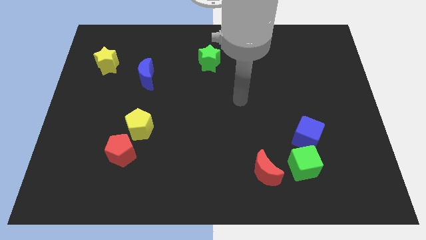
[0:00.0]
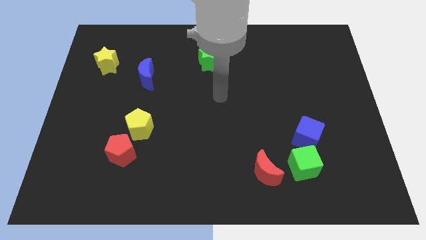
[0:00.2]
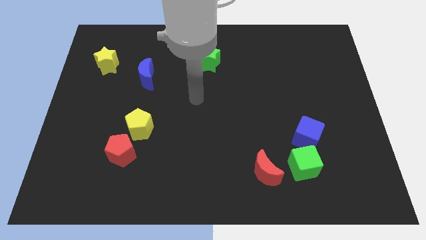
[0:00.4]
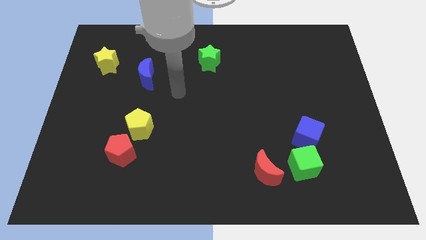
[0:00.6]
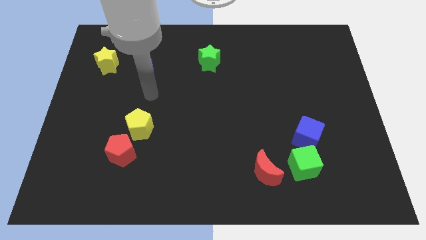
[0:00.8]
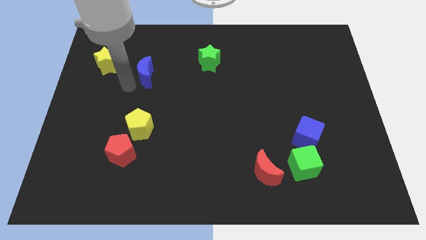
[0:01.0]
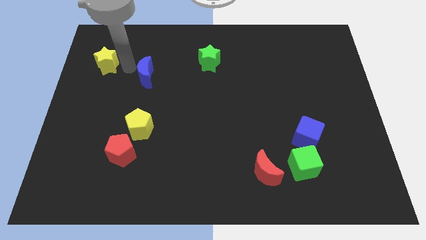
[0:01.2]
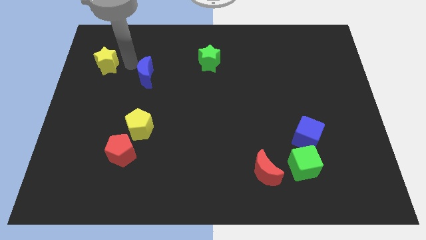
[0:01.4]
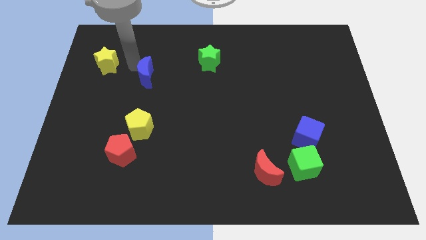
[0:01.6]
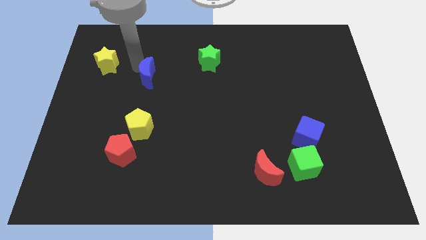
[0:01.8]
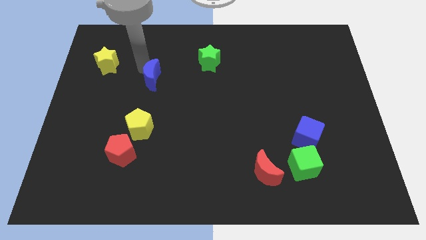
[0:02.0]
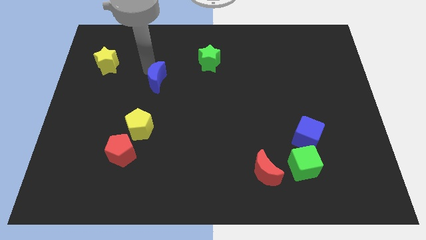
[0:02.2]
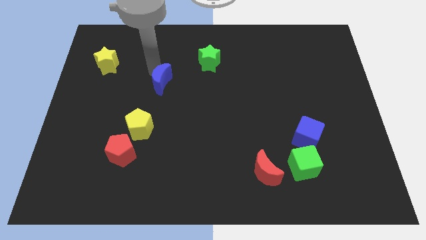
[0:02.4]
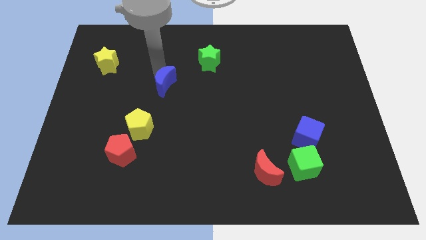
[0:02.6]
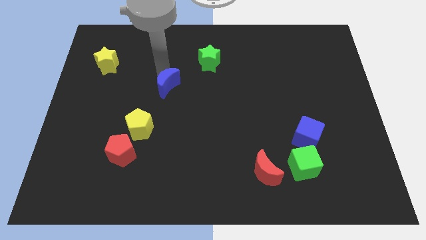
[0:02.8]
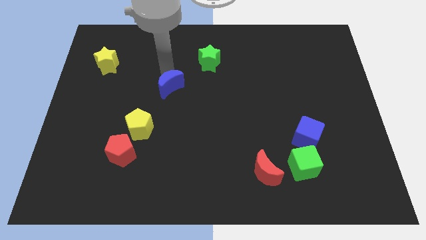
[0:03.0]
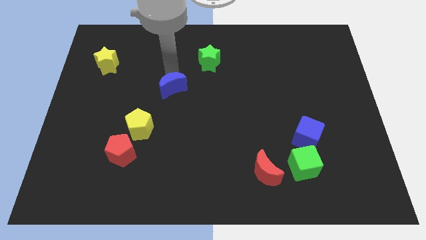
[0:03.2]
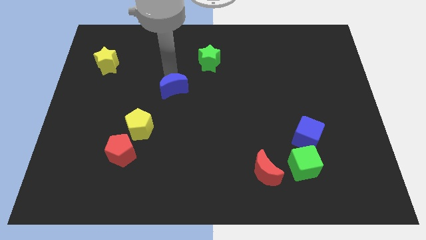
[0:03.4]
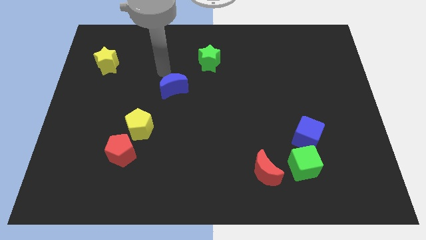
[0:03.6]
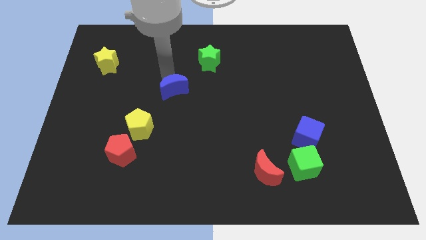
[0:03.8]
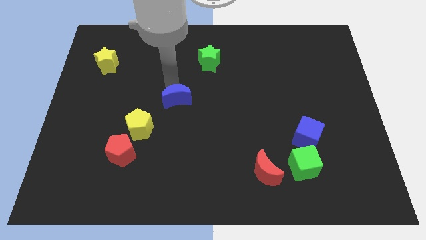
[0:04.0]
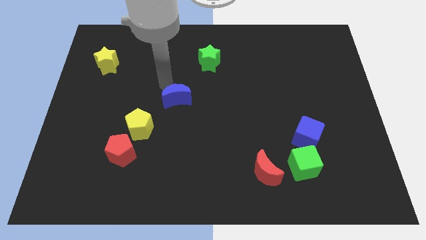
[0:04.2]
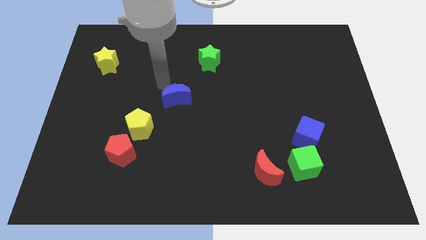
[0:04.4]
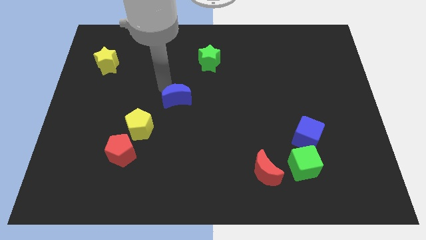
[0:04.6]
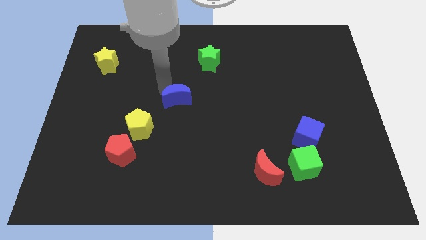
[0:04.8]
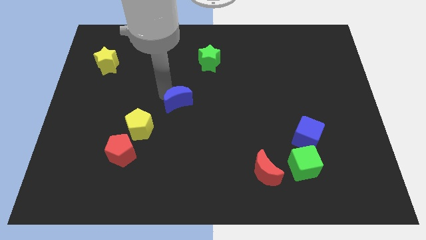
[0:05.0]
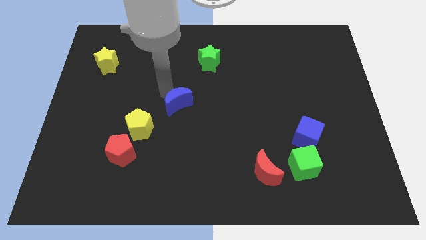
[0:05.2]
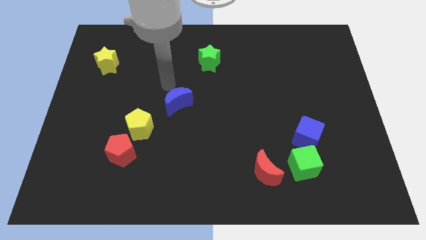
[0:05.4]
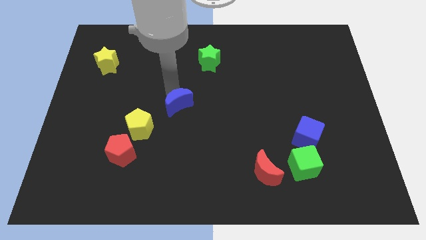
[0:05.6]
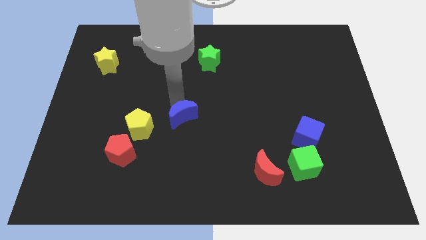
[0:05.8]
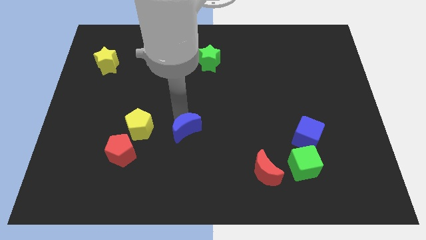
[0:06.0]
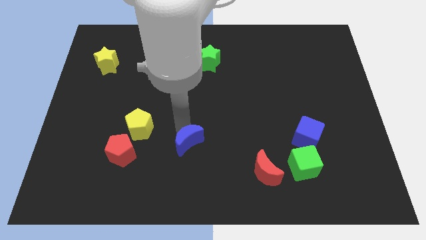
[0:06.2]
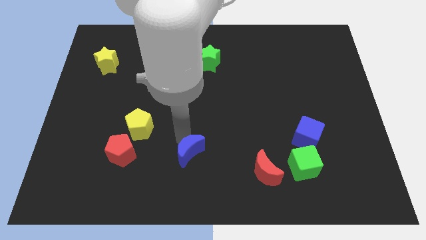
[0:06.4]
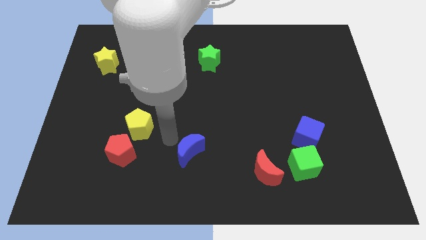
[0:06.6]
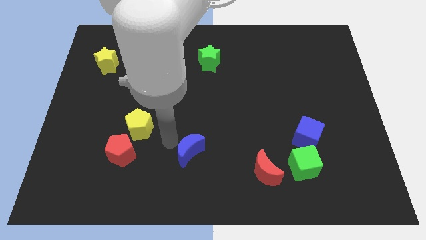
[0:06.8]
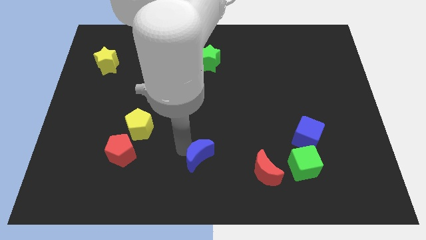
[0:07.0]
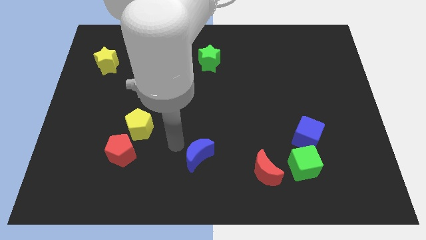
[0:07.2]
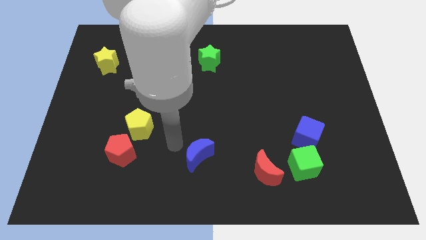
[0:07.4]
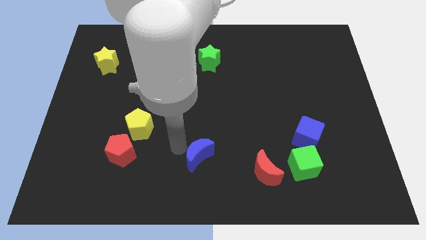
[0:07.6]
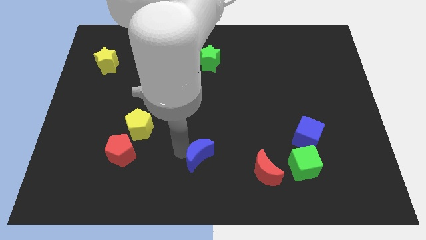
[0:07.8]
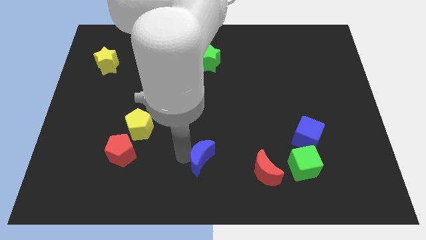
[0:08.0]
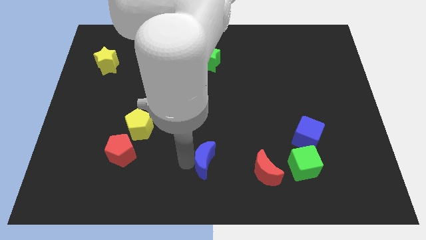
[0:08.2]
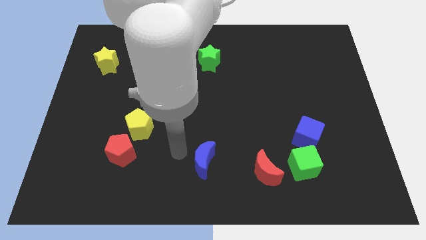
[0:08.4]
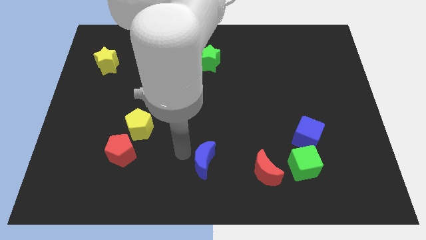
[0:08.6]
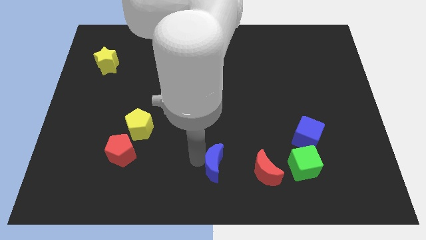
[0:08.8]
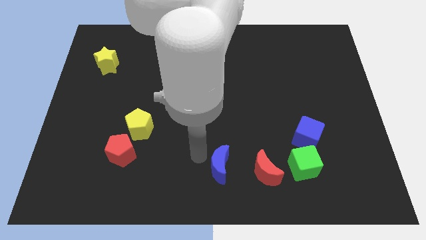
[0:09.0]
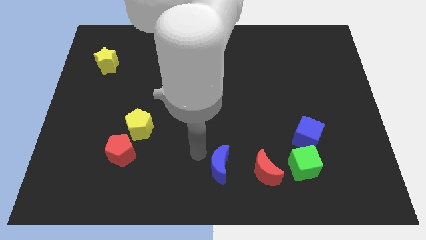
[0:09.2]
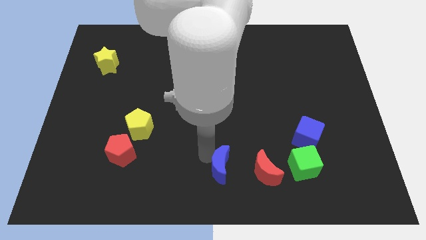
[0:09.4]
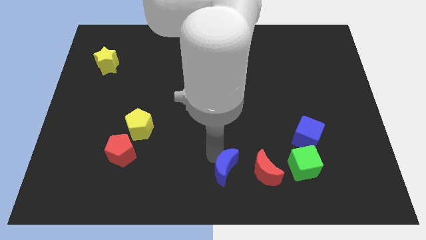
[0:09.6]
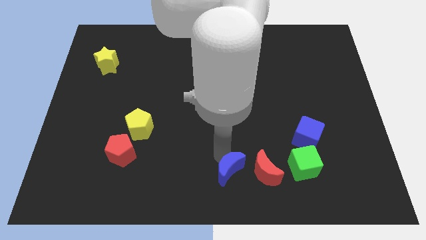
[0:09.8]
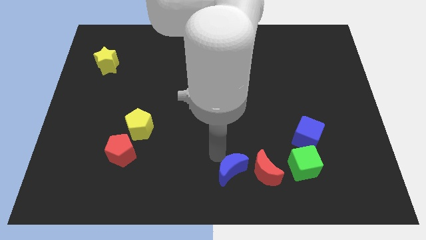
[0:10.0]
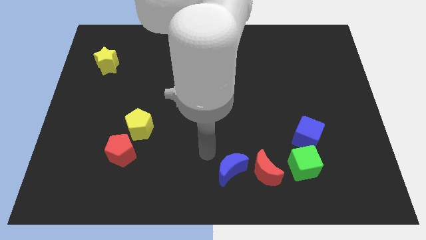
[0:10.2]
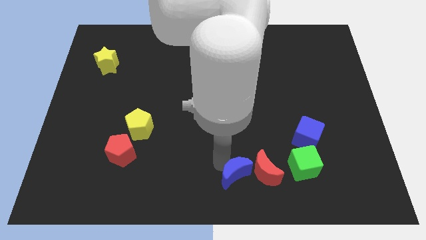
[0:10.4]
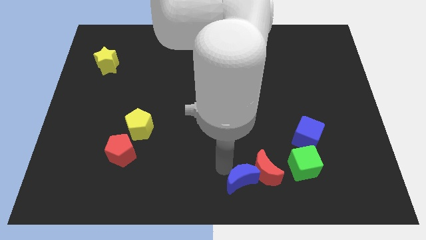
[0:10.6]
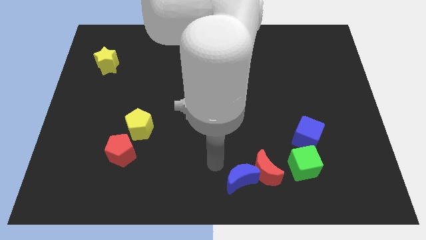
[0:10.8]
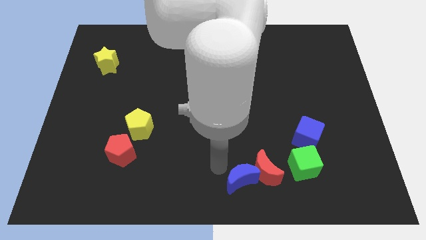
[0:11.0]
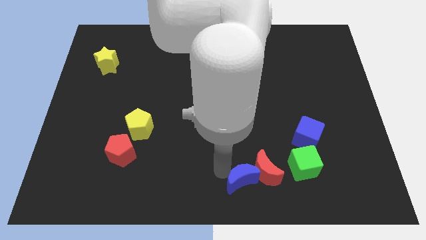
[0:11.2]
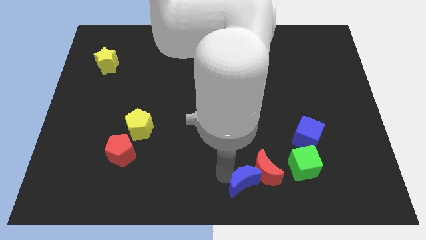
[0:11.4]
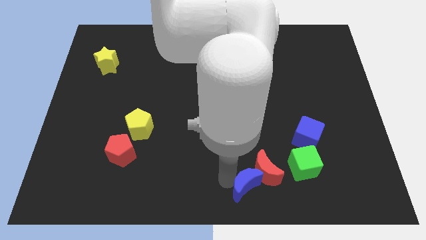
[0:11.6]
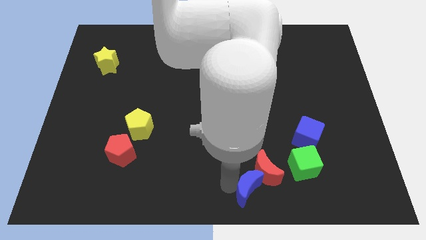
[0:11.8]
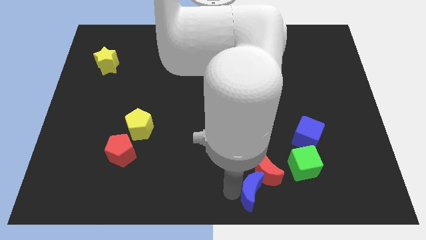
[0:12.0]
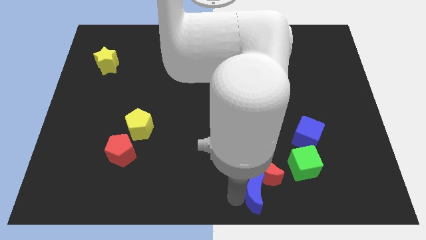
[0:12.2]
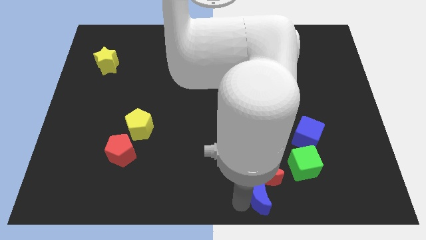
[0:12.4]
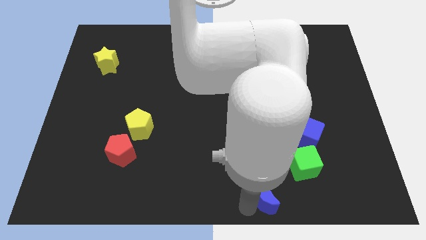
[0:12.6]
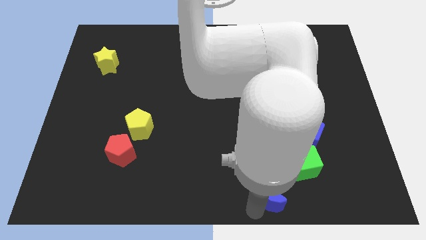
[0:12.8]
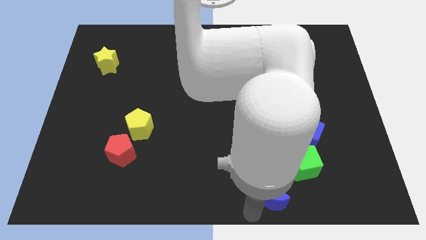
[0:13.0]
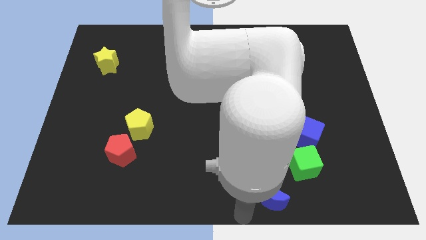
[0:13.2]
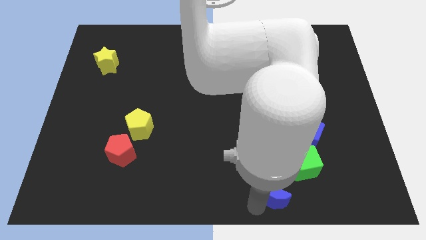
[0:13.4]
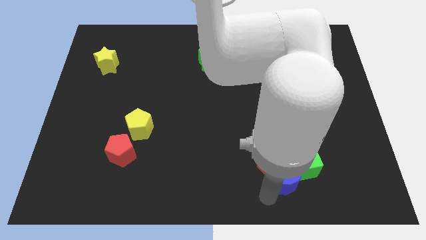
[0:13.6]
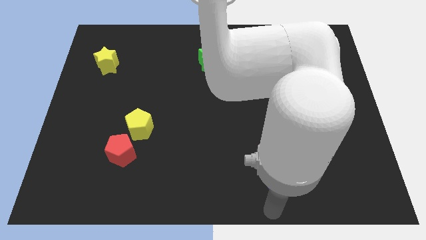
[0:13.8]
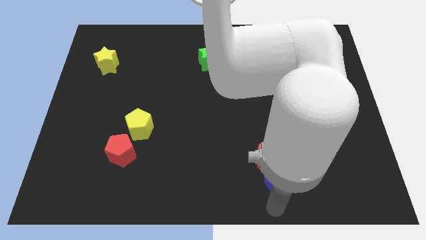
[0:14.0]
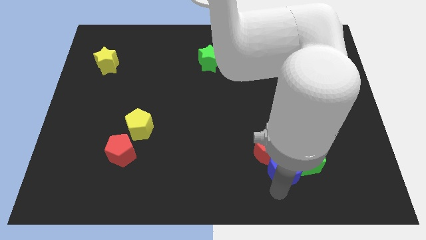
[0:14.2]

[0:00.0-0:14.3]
move the blue moon diagonally down and to the left of the blue cube
